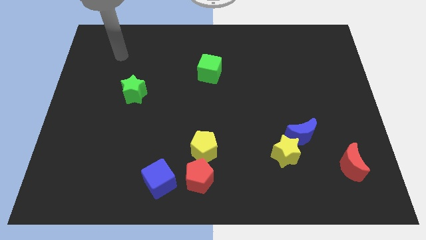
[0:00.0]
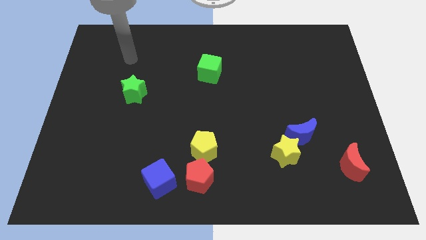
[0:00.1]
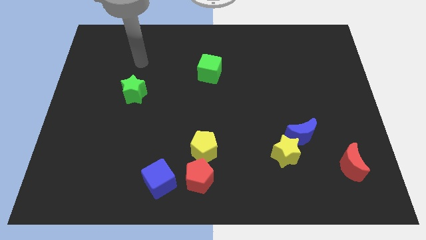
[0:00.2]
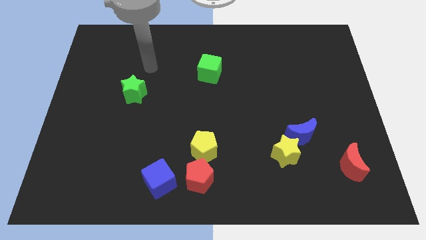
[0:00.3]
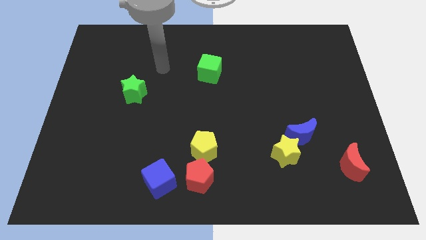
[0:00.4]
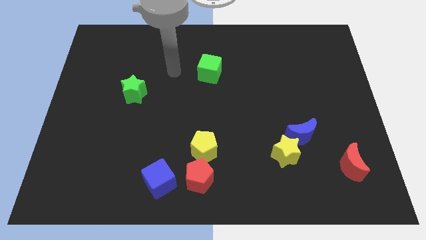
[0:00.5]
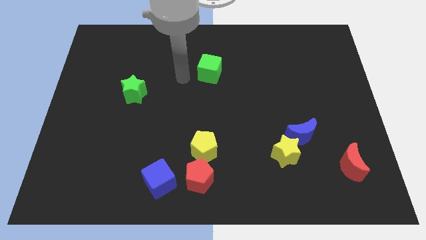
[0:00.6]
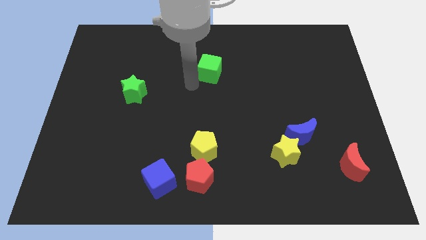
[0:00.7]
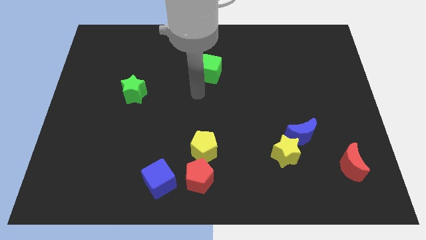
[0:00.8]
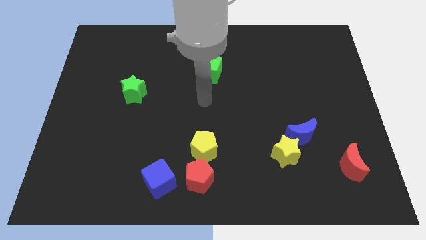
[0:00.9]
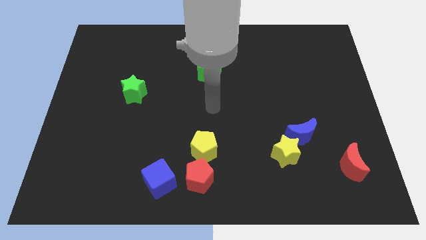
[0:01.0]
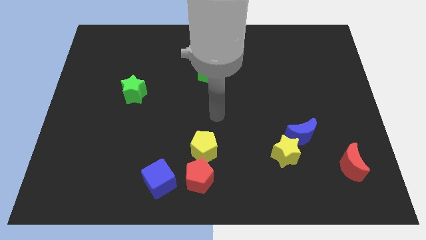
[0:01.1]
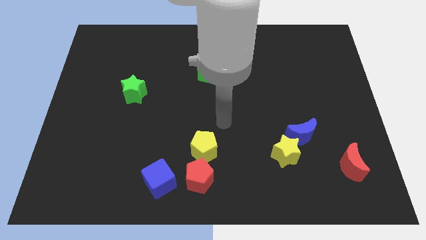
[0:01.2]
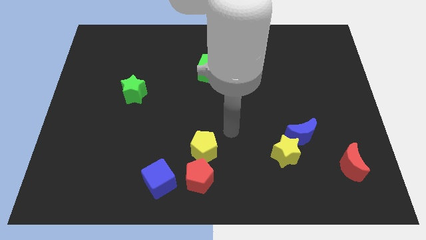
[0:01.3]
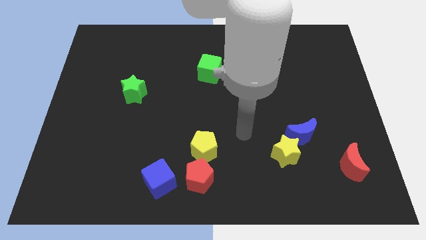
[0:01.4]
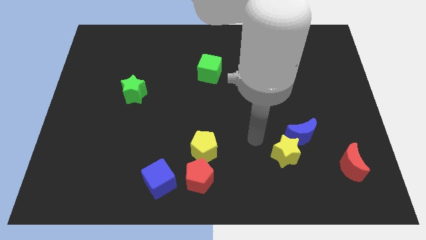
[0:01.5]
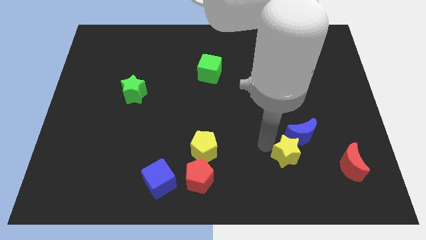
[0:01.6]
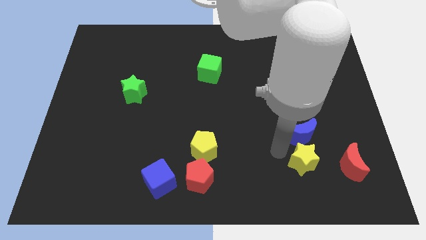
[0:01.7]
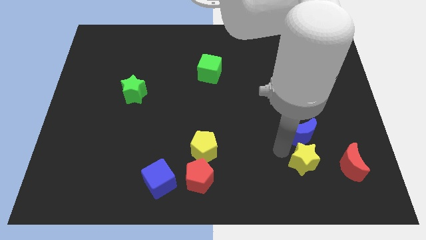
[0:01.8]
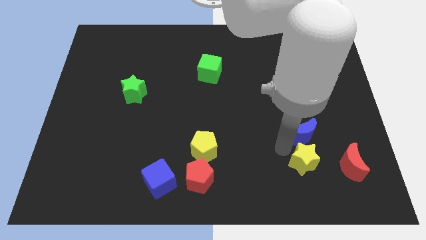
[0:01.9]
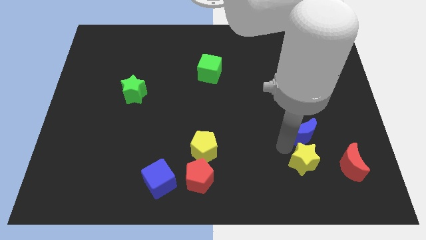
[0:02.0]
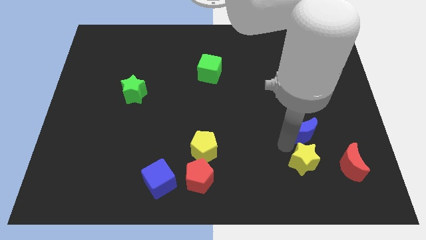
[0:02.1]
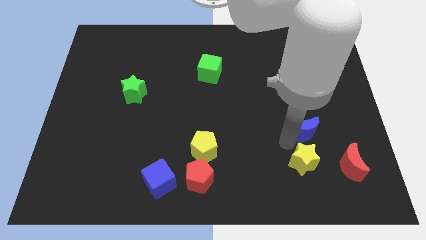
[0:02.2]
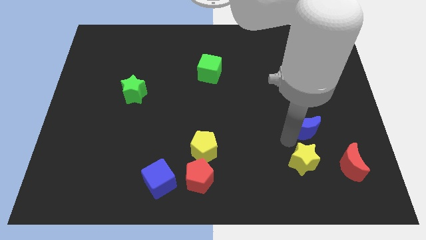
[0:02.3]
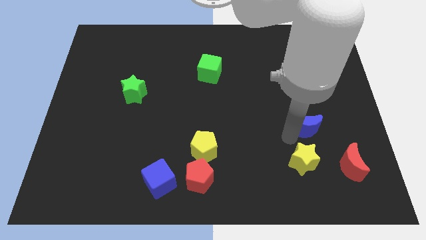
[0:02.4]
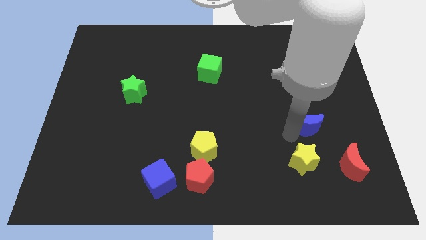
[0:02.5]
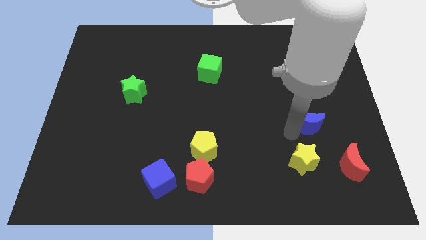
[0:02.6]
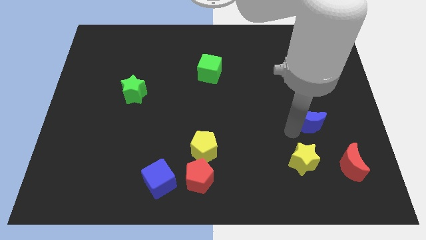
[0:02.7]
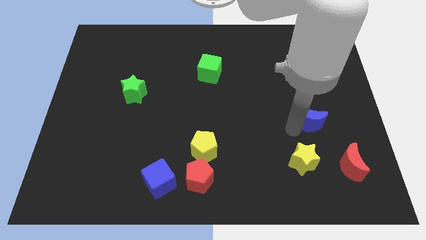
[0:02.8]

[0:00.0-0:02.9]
pull the blue moon apart from the yellow star

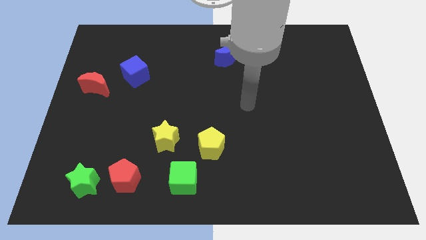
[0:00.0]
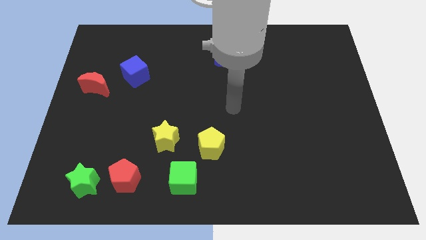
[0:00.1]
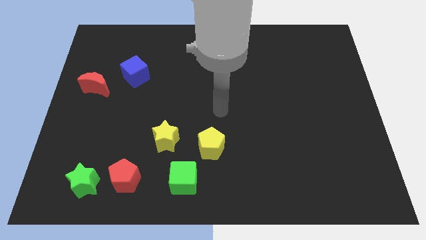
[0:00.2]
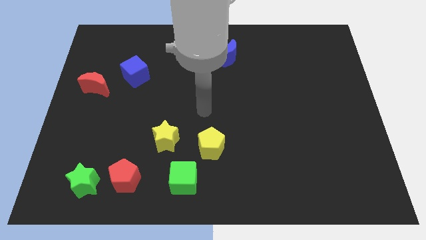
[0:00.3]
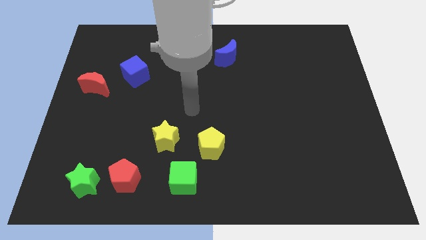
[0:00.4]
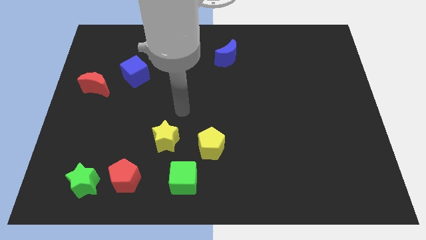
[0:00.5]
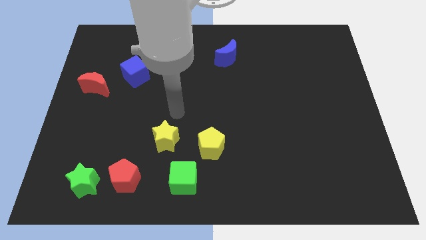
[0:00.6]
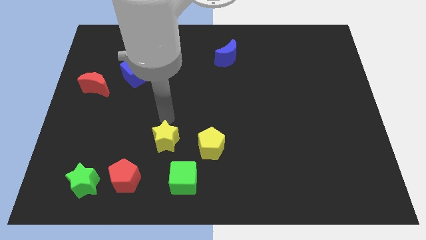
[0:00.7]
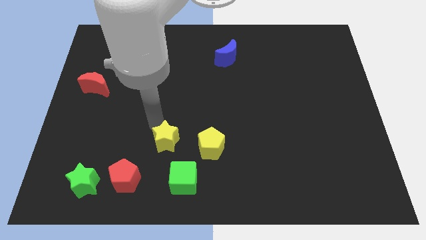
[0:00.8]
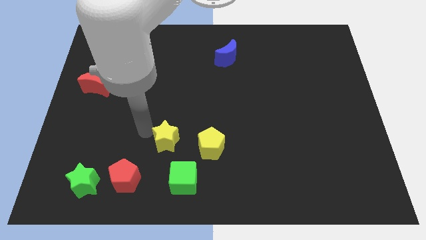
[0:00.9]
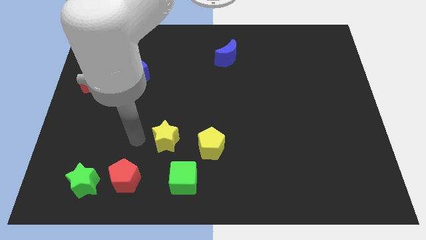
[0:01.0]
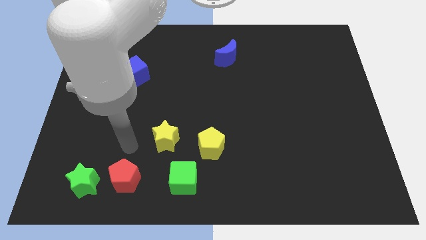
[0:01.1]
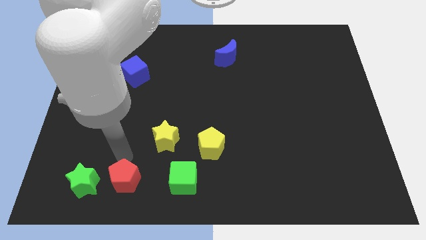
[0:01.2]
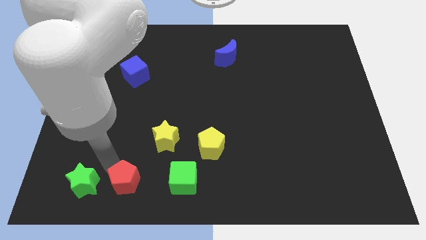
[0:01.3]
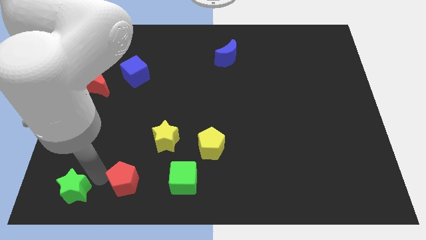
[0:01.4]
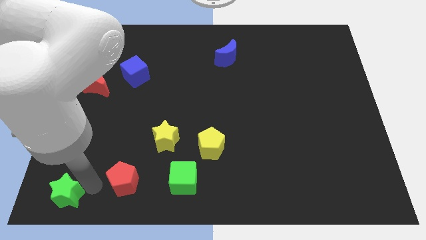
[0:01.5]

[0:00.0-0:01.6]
separate the red pentagon from the green star

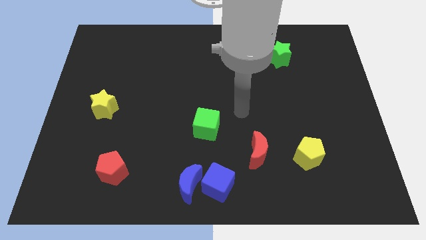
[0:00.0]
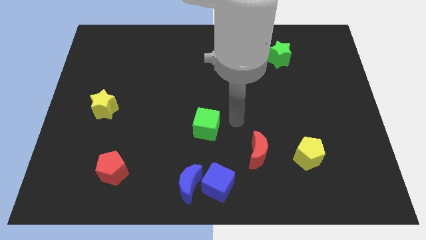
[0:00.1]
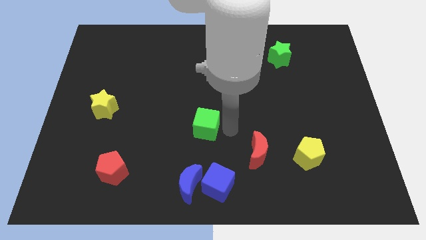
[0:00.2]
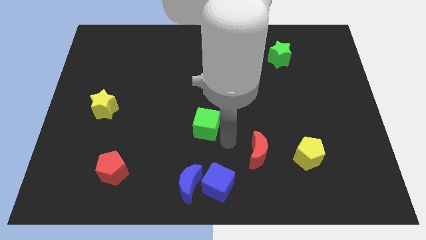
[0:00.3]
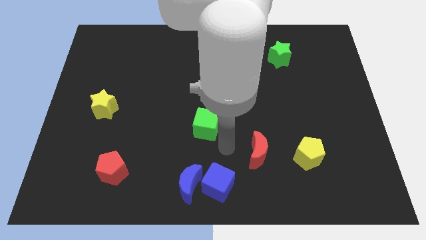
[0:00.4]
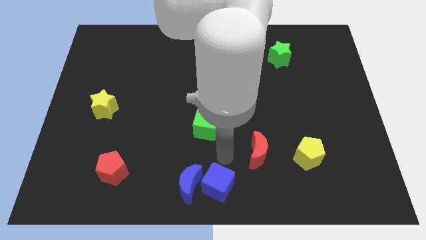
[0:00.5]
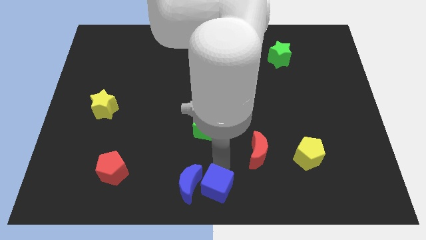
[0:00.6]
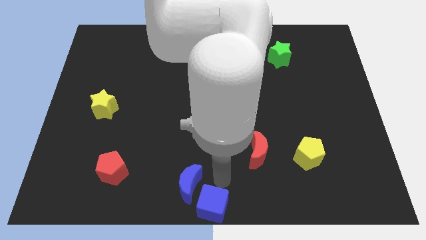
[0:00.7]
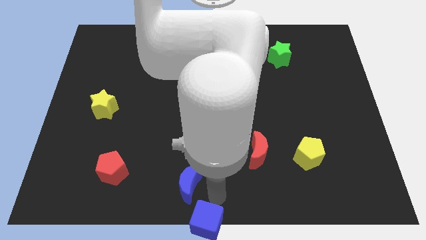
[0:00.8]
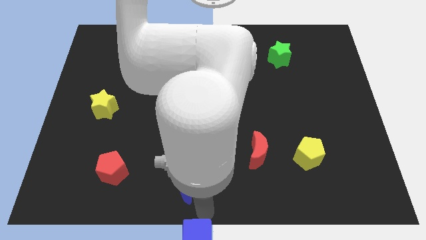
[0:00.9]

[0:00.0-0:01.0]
move the blue moon away from the blue cube

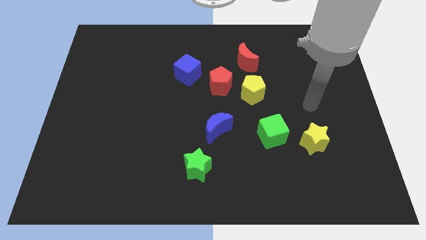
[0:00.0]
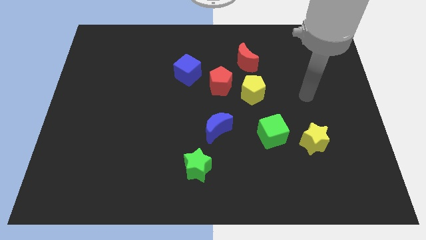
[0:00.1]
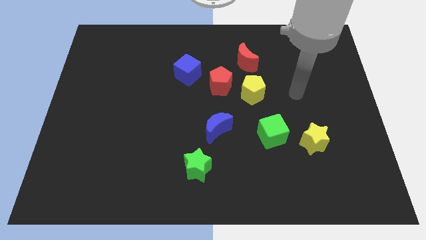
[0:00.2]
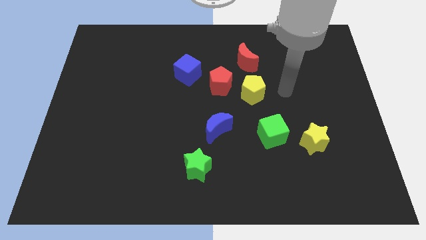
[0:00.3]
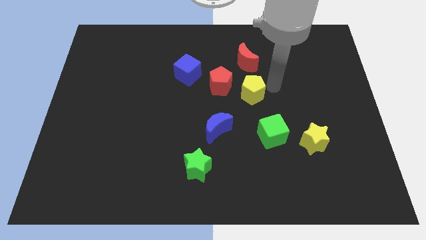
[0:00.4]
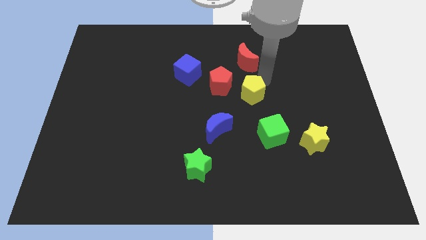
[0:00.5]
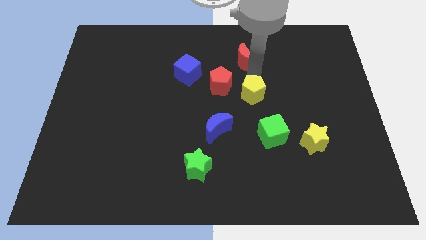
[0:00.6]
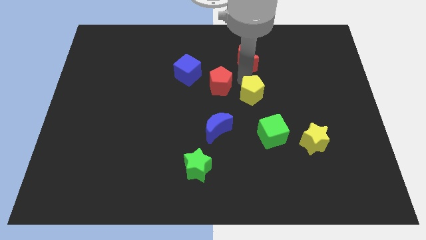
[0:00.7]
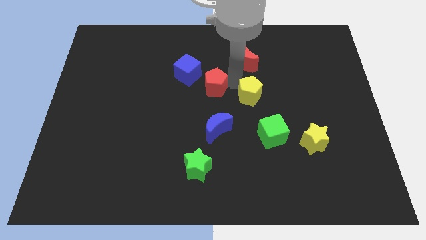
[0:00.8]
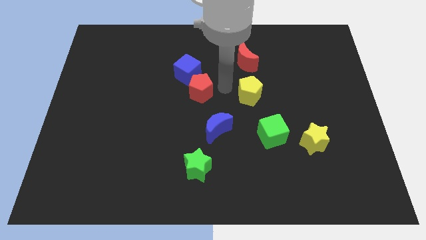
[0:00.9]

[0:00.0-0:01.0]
pull the yellow pentagon apart from the red pentagon

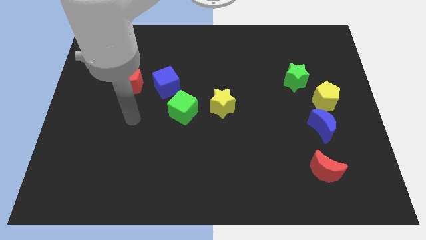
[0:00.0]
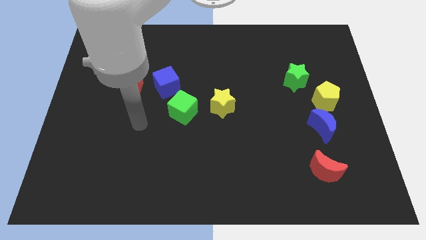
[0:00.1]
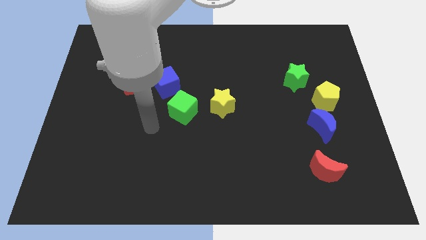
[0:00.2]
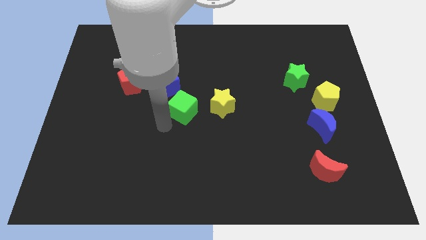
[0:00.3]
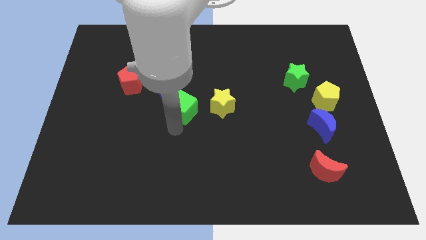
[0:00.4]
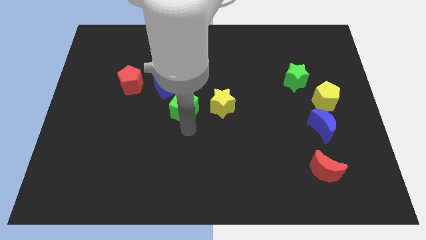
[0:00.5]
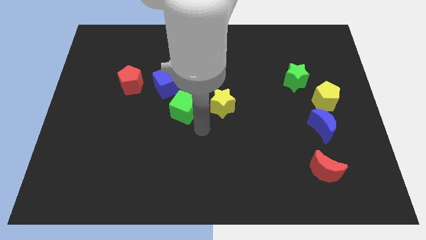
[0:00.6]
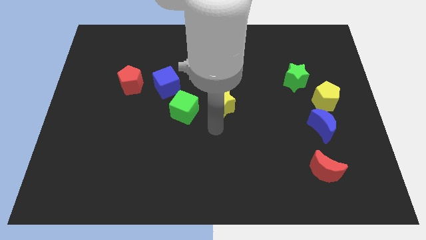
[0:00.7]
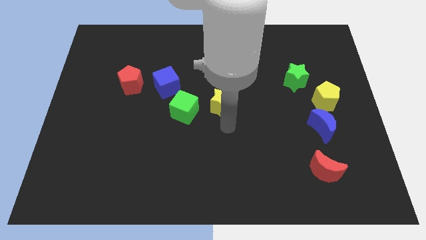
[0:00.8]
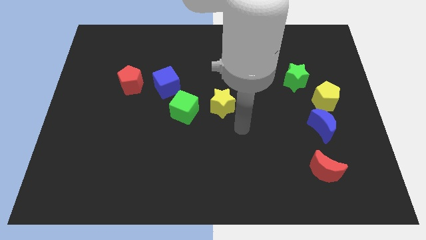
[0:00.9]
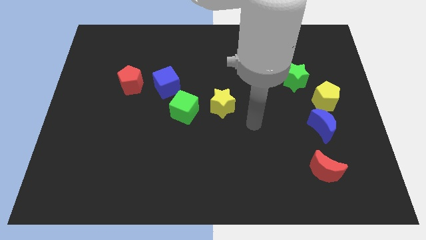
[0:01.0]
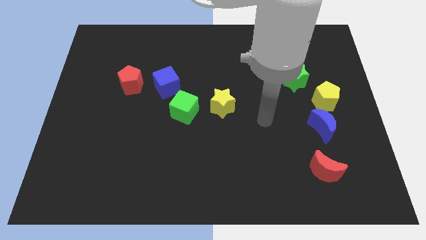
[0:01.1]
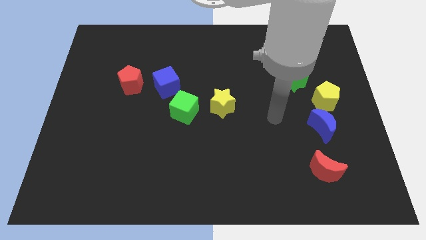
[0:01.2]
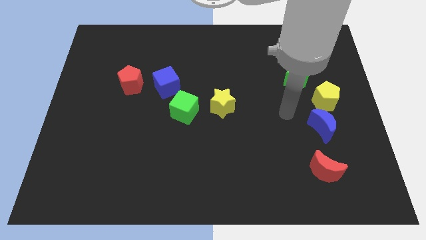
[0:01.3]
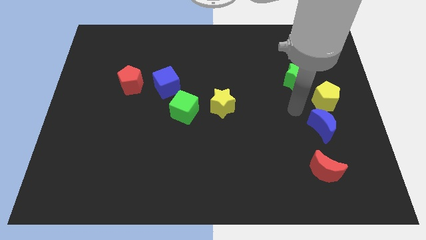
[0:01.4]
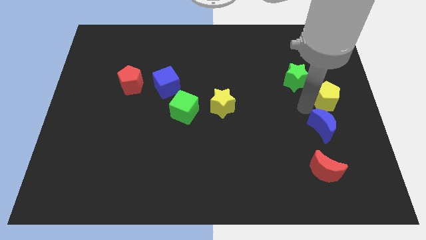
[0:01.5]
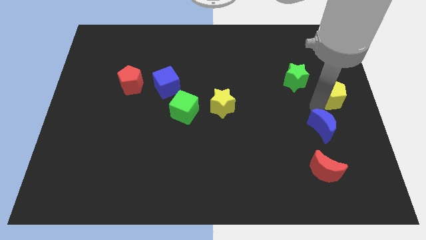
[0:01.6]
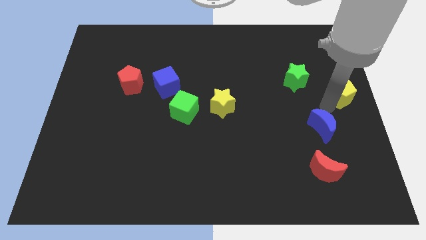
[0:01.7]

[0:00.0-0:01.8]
move the blue moon away from the yellow pentagon

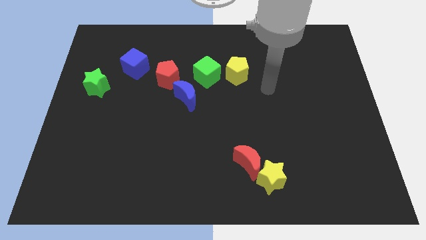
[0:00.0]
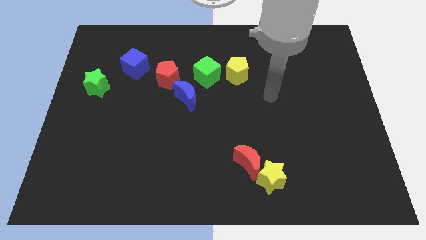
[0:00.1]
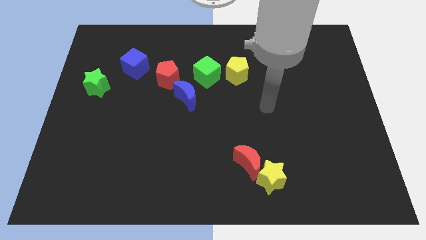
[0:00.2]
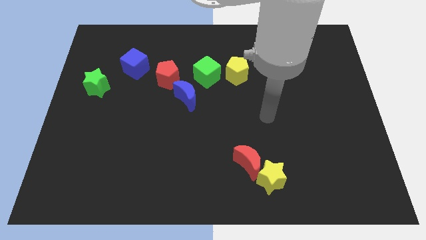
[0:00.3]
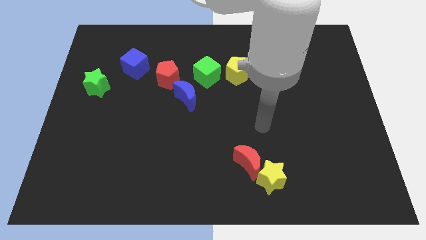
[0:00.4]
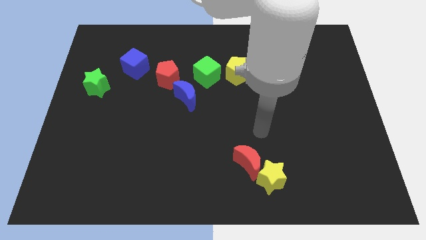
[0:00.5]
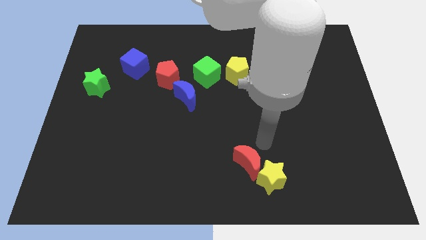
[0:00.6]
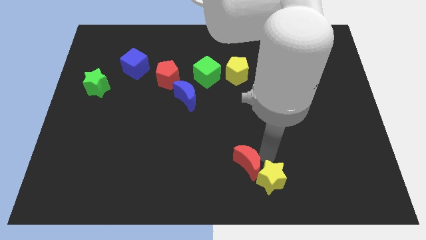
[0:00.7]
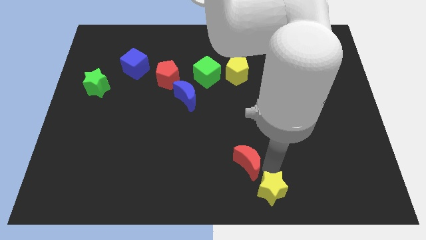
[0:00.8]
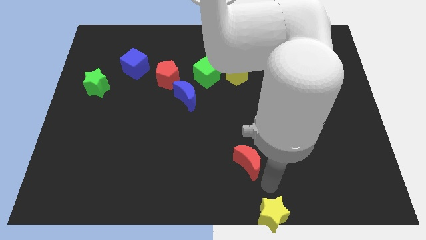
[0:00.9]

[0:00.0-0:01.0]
pull the red moon apart from the yellow star
